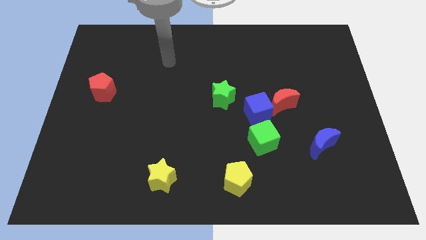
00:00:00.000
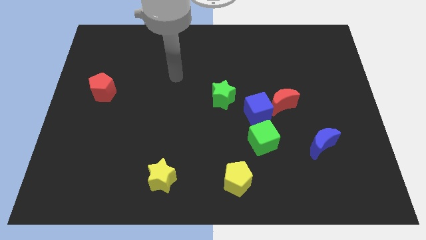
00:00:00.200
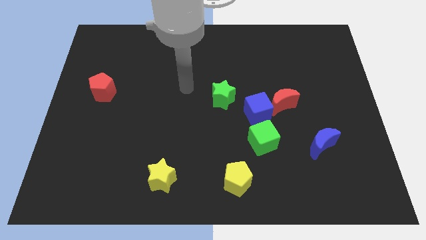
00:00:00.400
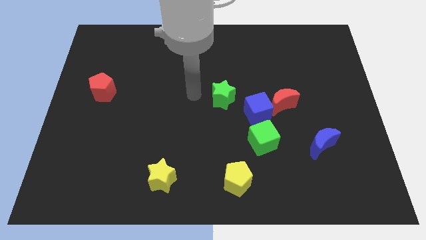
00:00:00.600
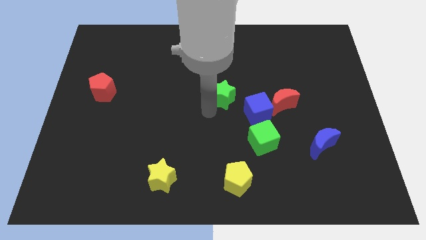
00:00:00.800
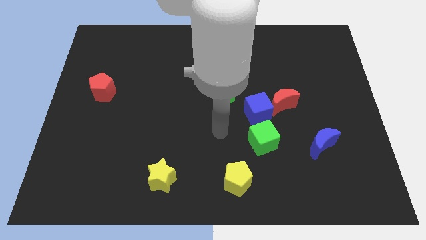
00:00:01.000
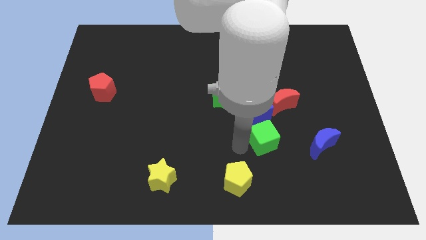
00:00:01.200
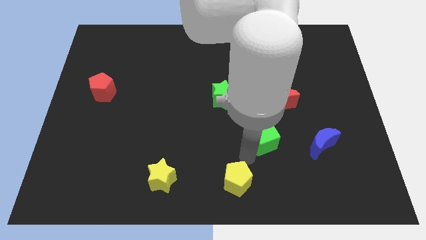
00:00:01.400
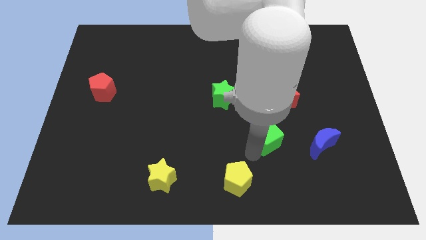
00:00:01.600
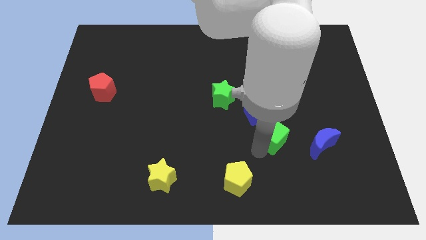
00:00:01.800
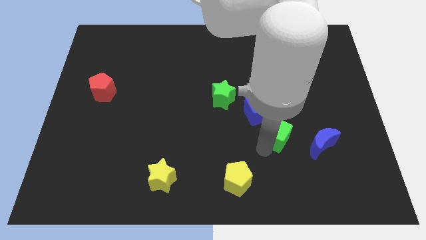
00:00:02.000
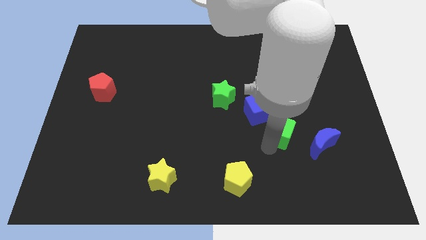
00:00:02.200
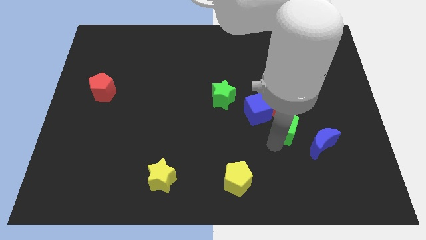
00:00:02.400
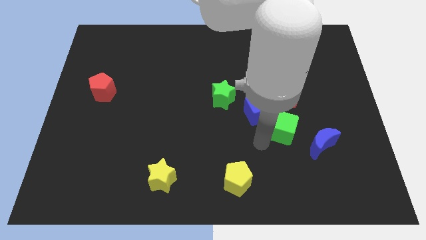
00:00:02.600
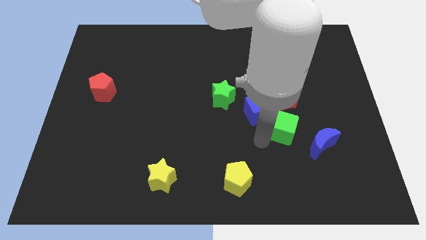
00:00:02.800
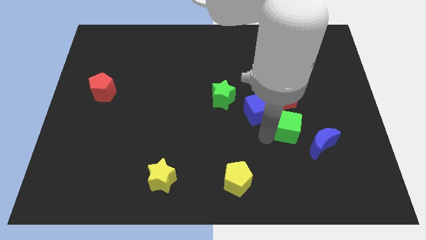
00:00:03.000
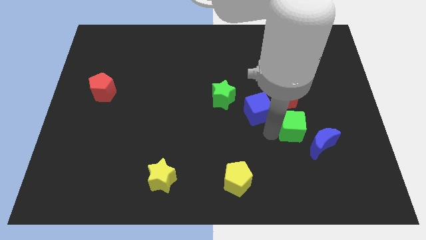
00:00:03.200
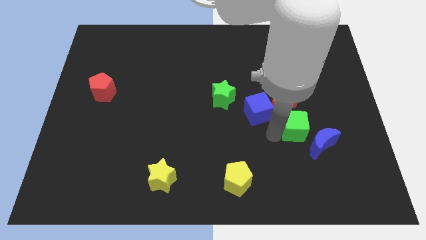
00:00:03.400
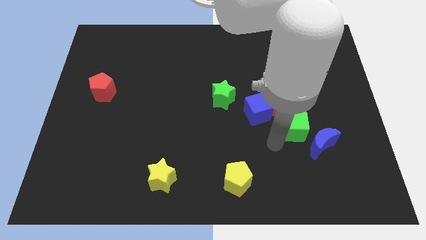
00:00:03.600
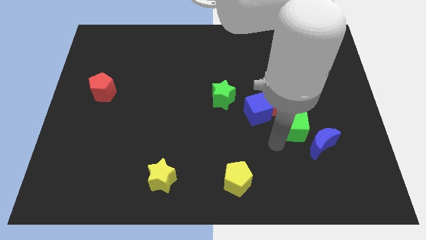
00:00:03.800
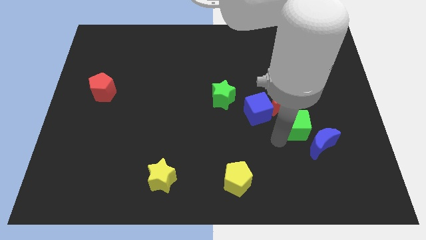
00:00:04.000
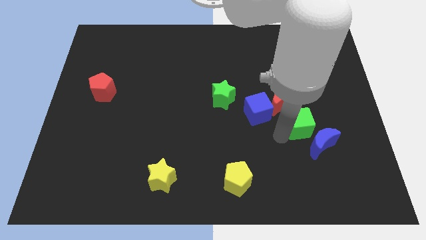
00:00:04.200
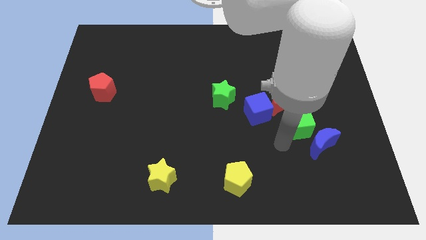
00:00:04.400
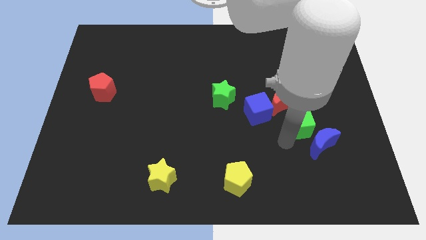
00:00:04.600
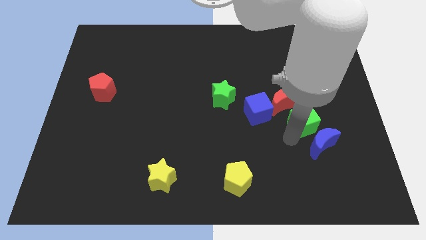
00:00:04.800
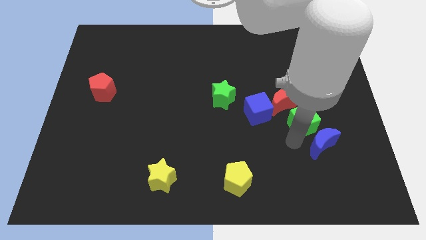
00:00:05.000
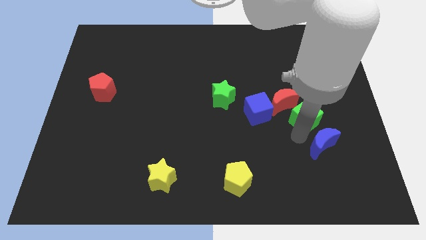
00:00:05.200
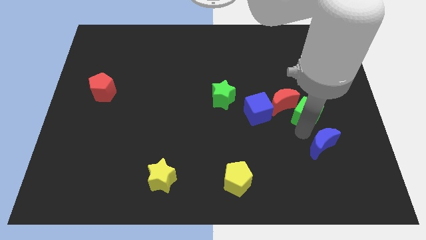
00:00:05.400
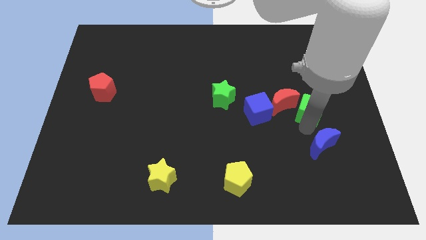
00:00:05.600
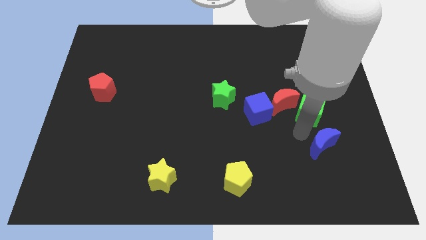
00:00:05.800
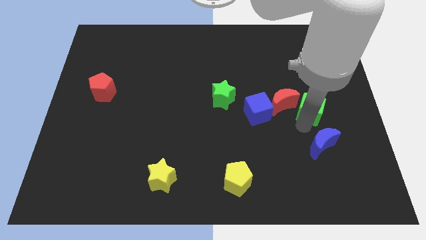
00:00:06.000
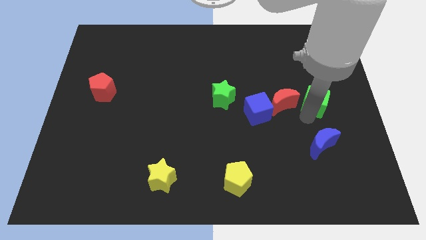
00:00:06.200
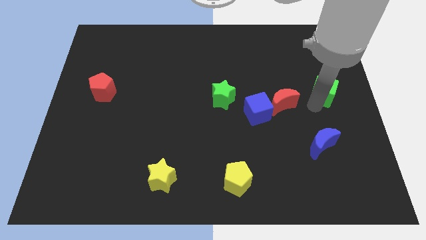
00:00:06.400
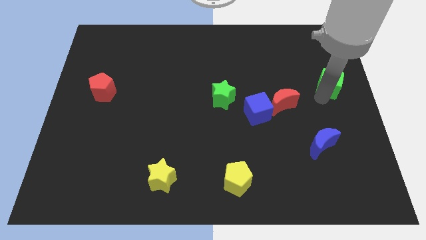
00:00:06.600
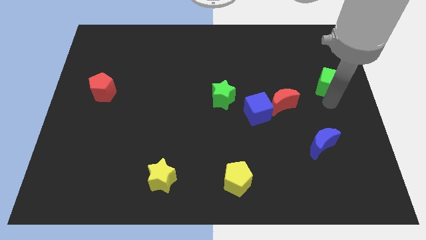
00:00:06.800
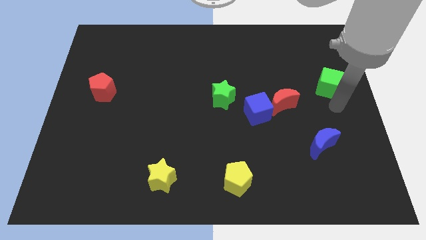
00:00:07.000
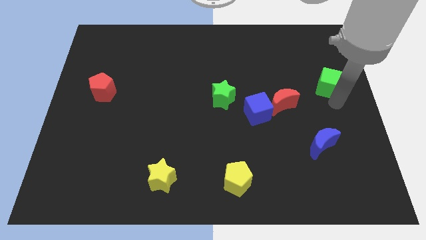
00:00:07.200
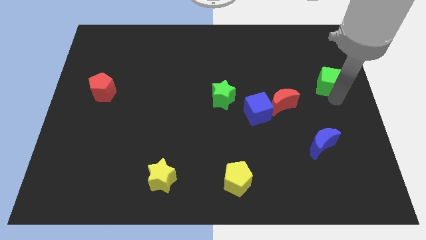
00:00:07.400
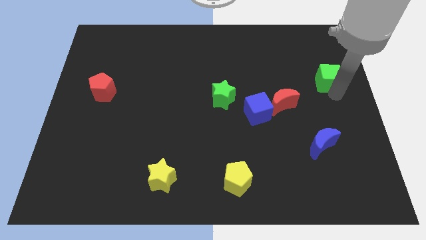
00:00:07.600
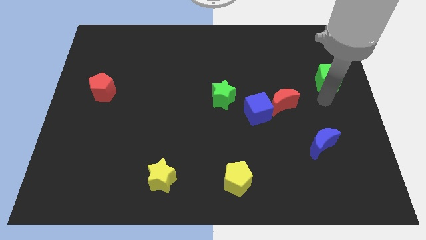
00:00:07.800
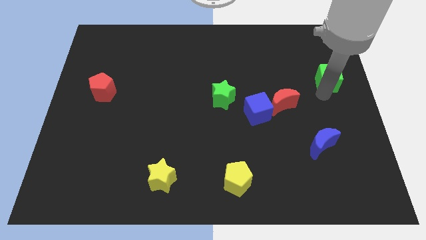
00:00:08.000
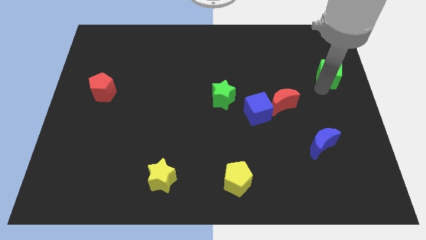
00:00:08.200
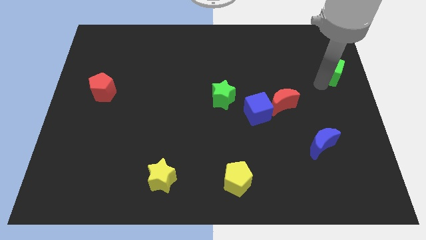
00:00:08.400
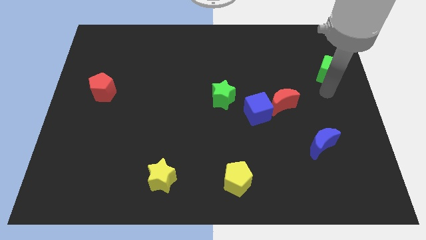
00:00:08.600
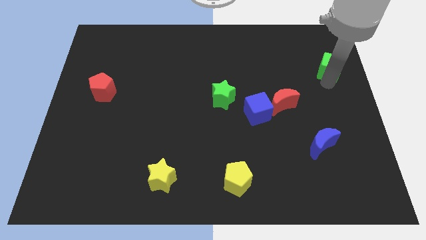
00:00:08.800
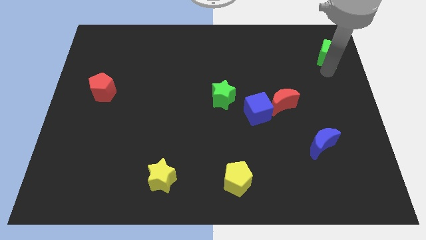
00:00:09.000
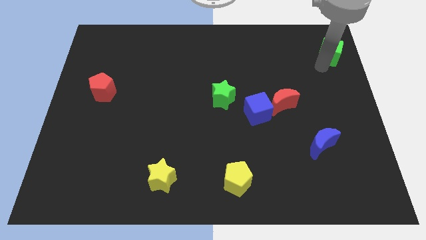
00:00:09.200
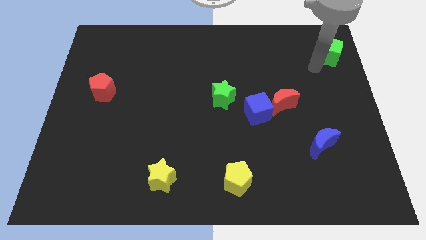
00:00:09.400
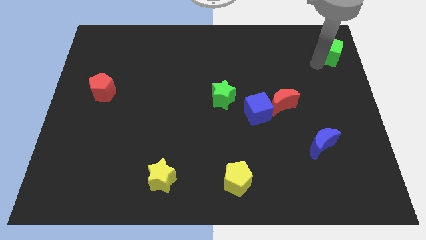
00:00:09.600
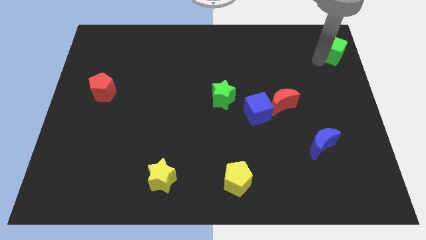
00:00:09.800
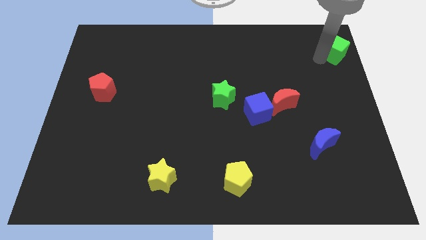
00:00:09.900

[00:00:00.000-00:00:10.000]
slide the green cube to the upper right corner
